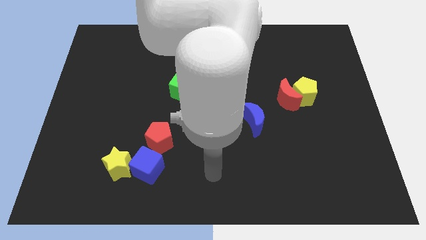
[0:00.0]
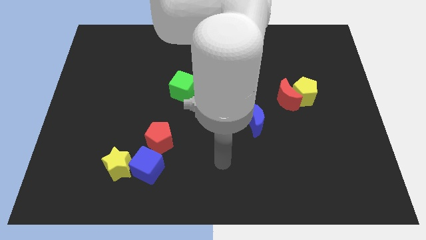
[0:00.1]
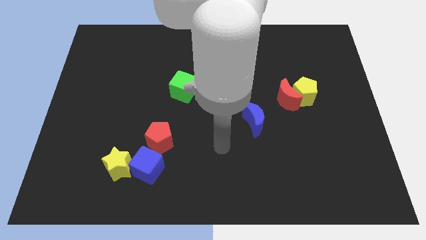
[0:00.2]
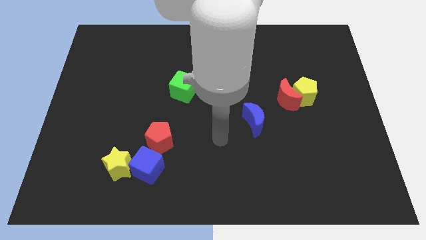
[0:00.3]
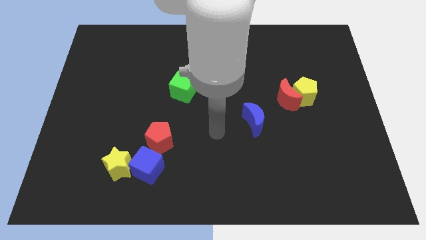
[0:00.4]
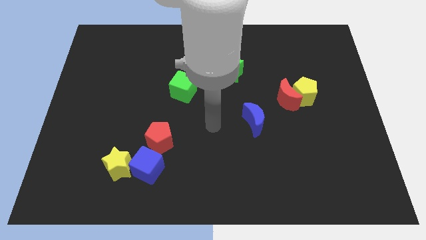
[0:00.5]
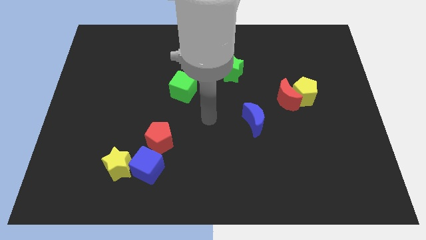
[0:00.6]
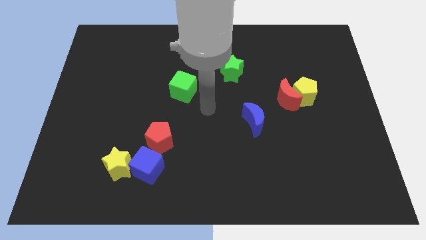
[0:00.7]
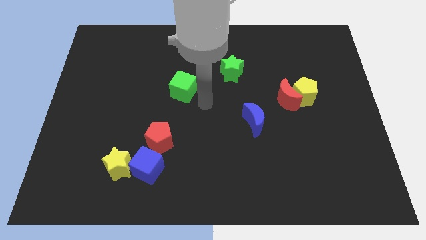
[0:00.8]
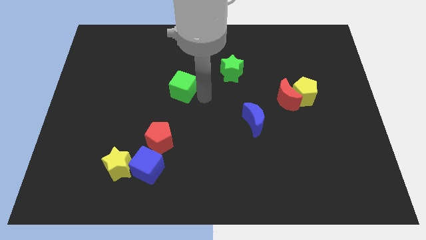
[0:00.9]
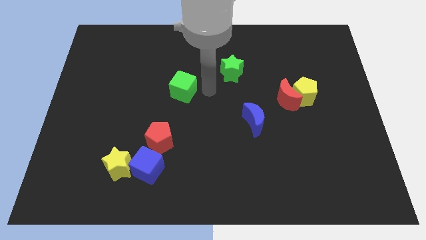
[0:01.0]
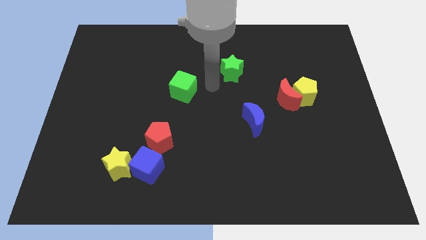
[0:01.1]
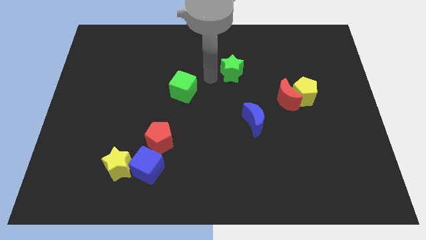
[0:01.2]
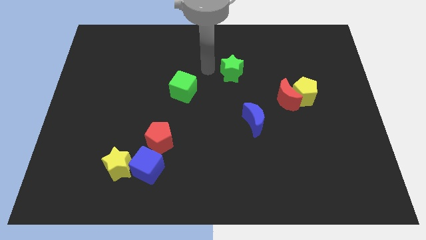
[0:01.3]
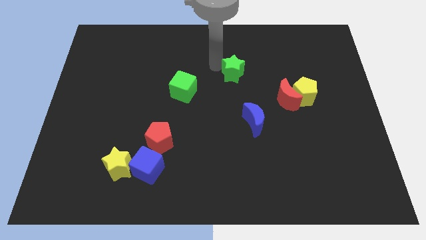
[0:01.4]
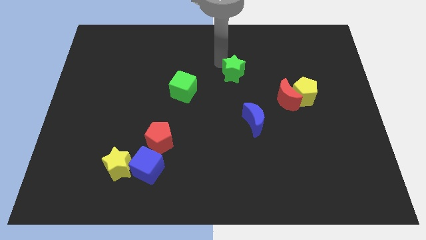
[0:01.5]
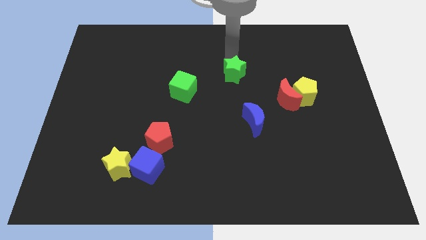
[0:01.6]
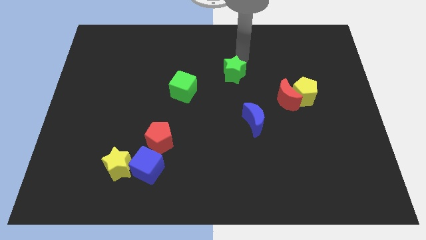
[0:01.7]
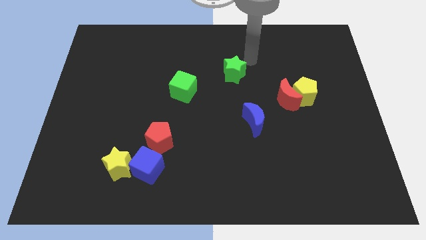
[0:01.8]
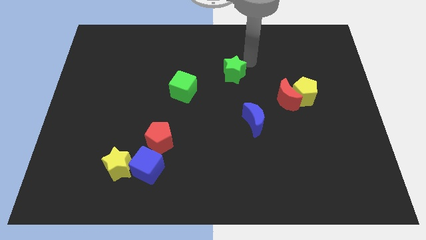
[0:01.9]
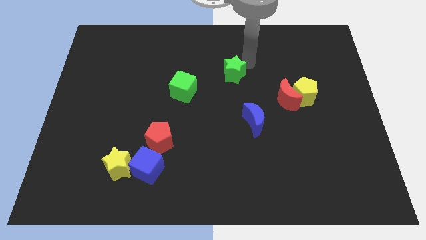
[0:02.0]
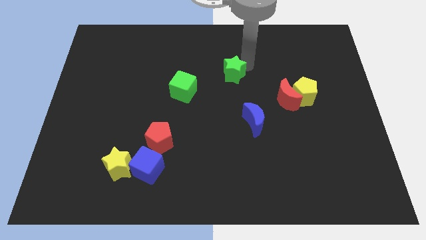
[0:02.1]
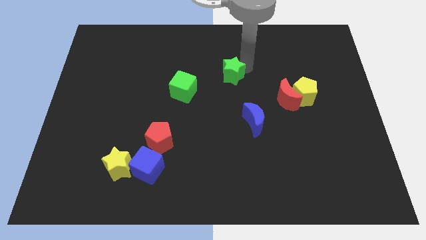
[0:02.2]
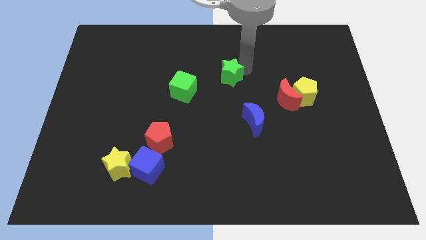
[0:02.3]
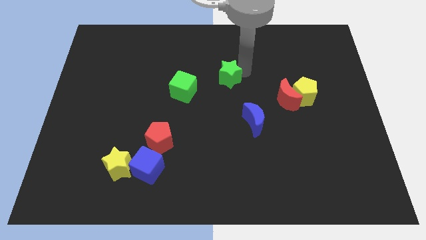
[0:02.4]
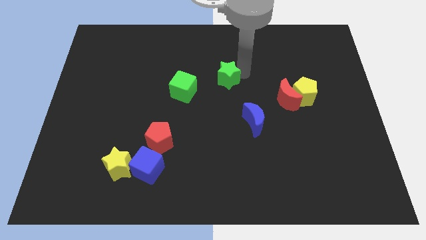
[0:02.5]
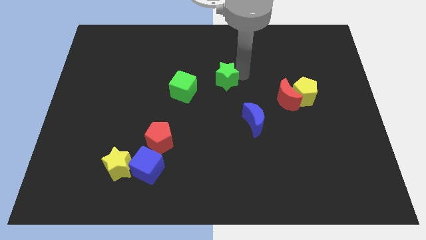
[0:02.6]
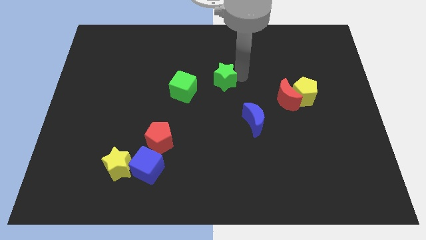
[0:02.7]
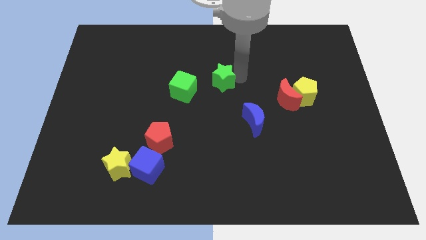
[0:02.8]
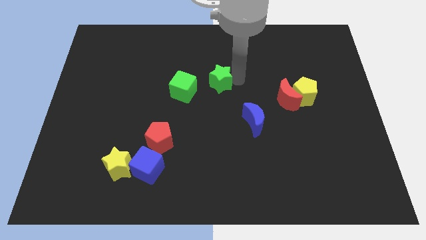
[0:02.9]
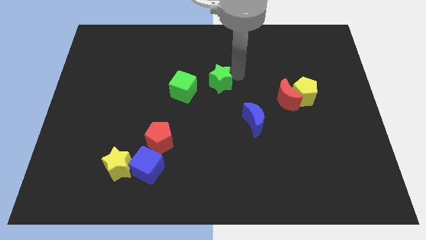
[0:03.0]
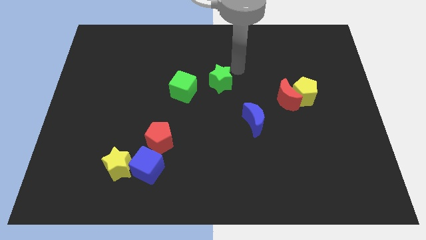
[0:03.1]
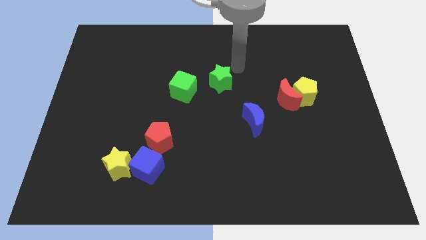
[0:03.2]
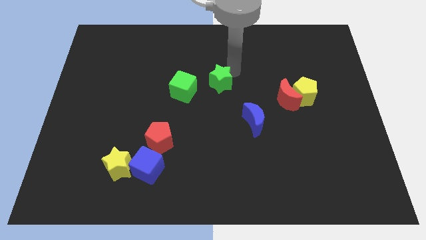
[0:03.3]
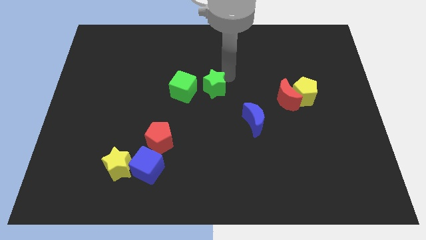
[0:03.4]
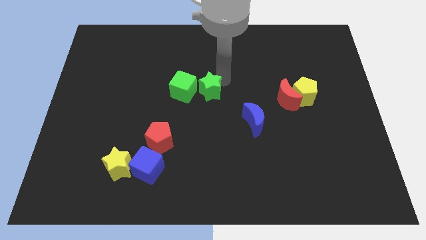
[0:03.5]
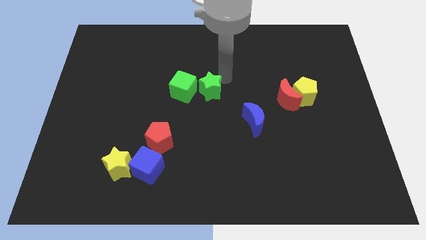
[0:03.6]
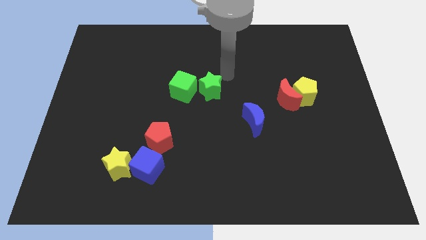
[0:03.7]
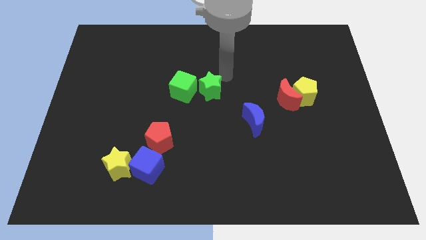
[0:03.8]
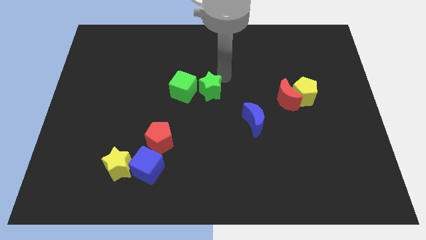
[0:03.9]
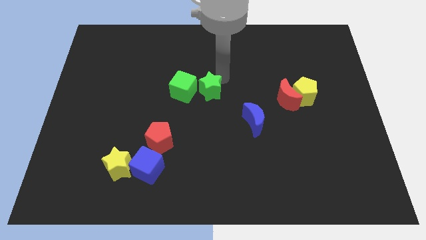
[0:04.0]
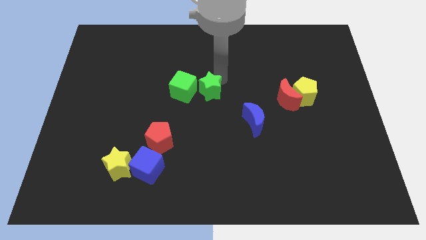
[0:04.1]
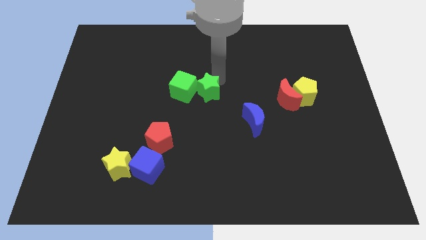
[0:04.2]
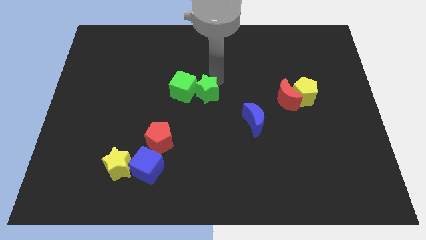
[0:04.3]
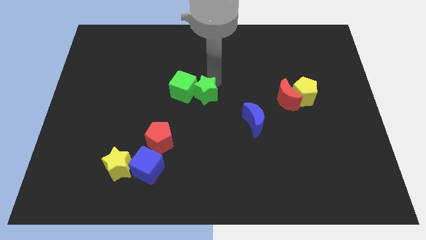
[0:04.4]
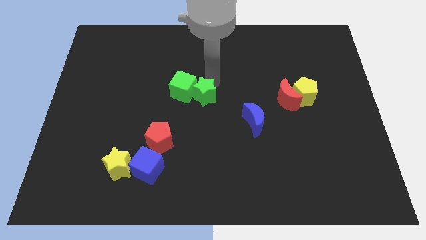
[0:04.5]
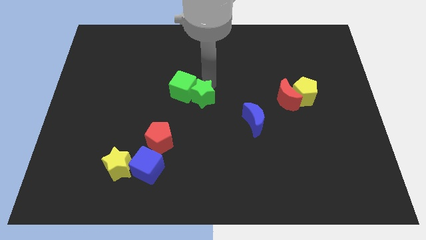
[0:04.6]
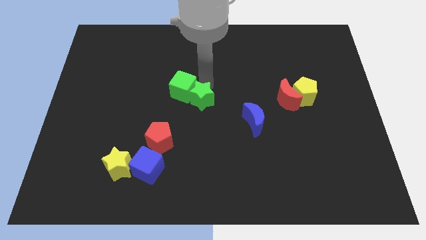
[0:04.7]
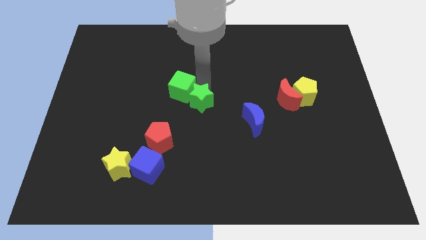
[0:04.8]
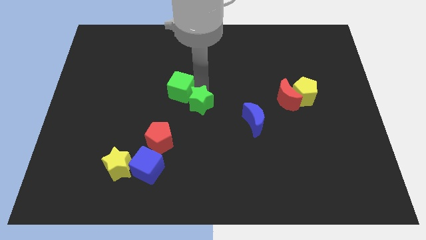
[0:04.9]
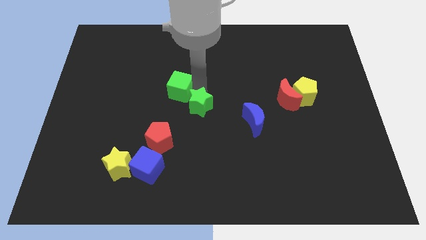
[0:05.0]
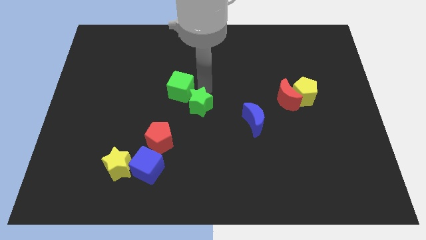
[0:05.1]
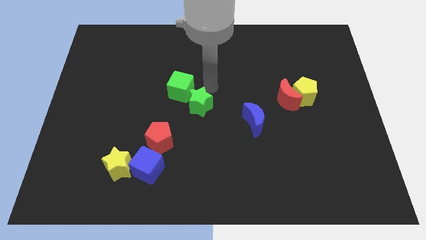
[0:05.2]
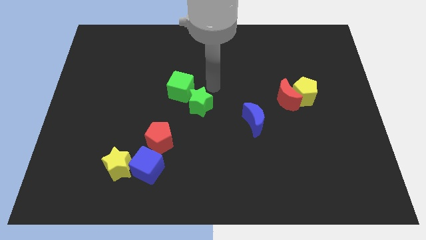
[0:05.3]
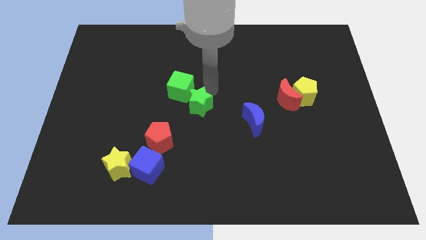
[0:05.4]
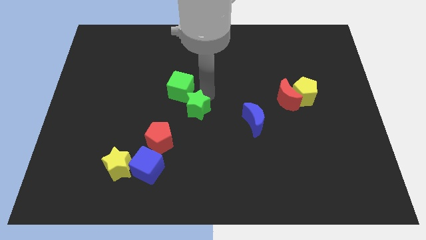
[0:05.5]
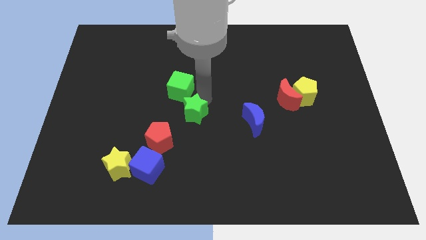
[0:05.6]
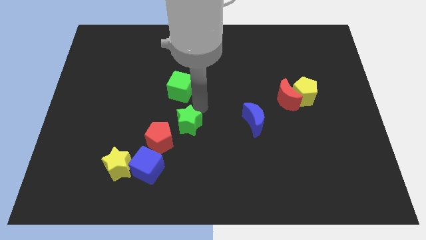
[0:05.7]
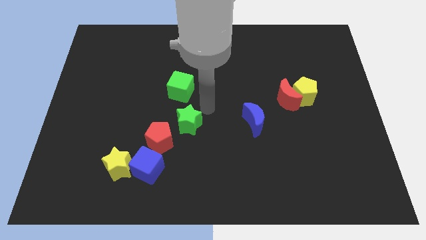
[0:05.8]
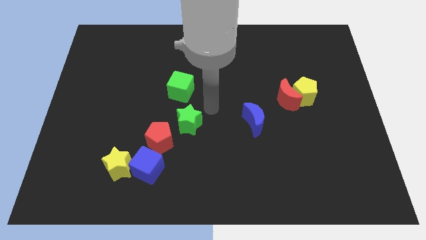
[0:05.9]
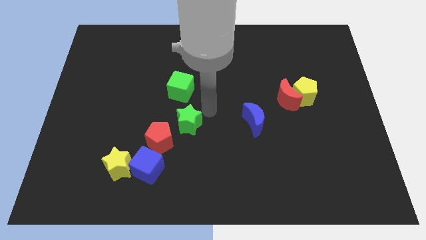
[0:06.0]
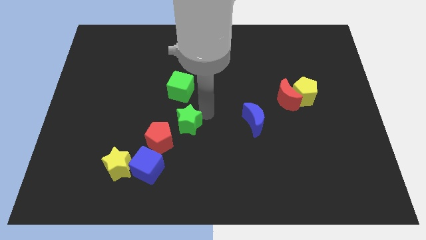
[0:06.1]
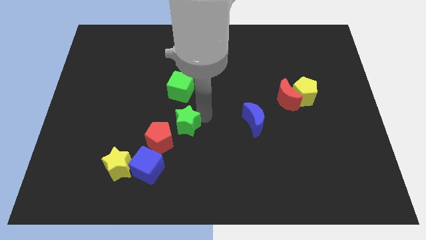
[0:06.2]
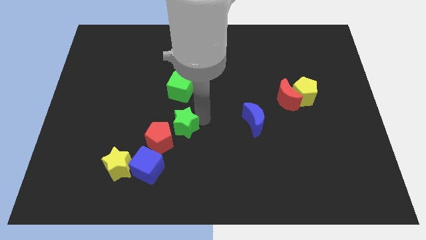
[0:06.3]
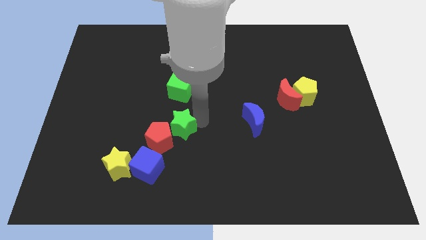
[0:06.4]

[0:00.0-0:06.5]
put the green star to the red pentagon

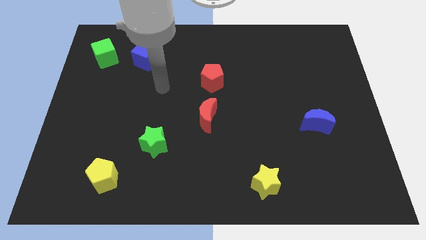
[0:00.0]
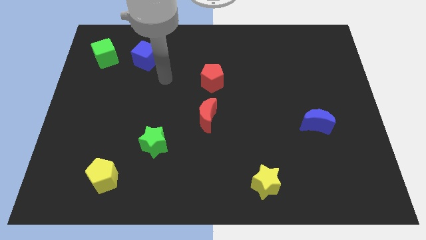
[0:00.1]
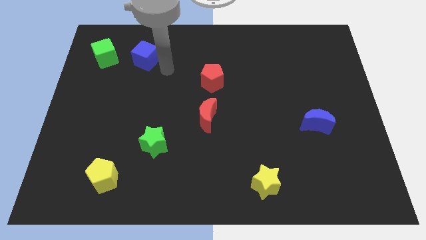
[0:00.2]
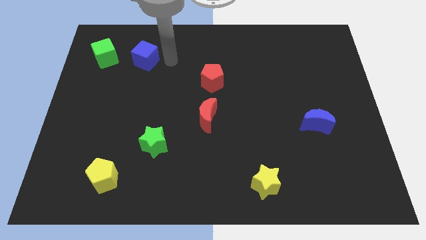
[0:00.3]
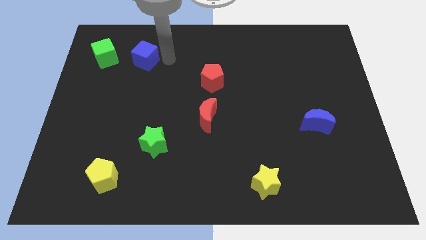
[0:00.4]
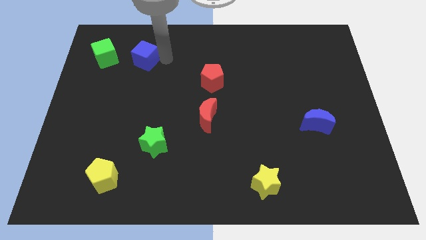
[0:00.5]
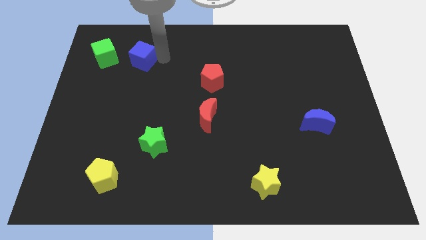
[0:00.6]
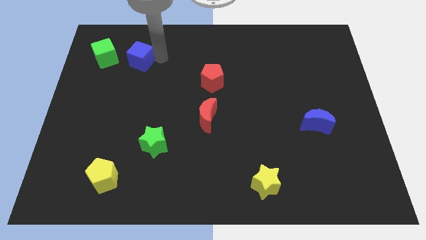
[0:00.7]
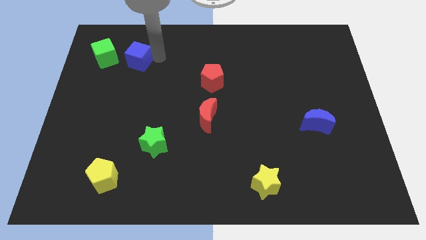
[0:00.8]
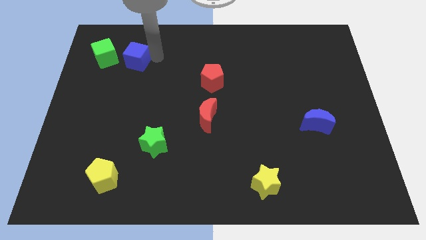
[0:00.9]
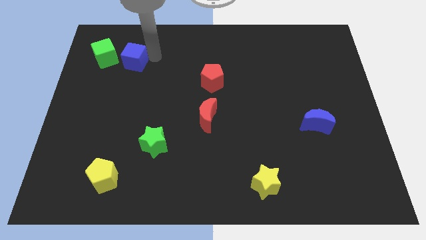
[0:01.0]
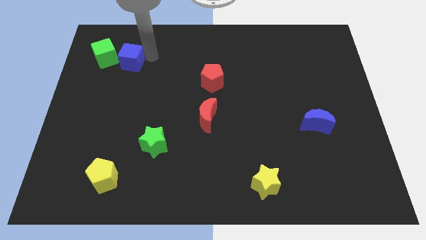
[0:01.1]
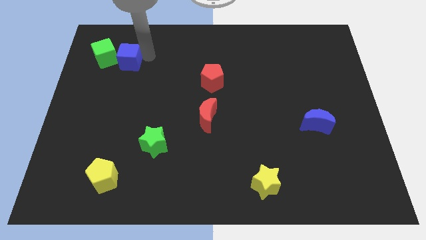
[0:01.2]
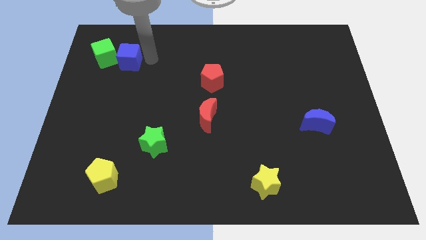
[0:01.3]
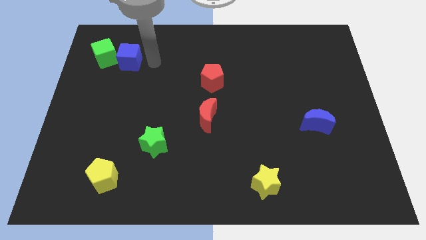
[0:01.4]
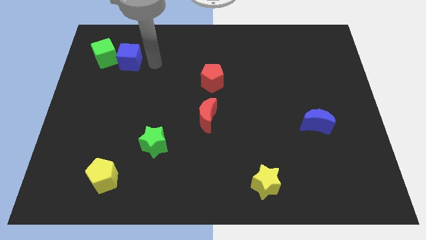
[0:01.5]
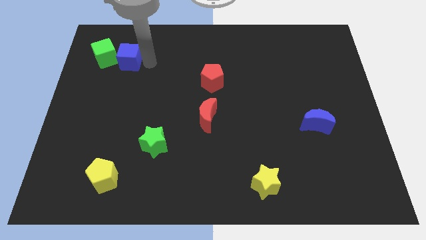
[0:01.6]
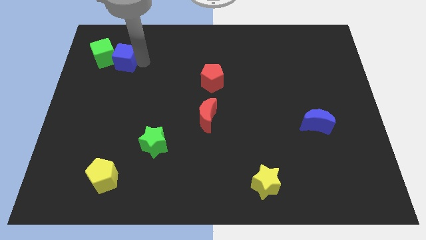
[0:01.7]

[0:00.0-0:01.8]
push the blue cube to the green cube
